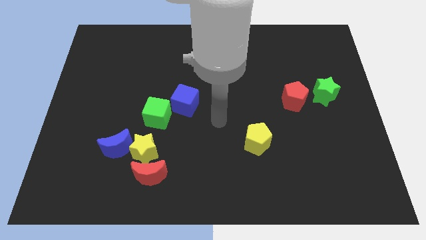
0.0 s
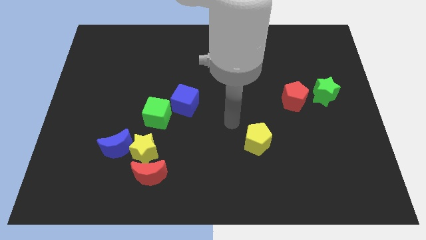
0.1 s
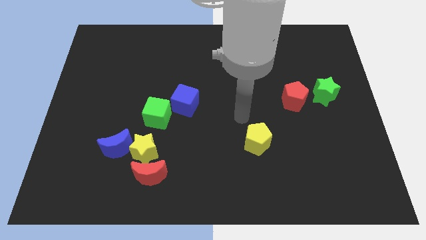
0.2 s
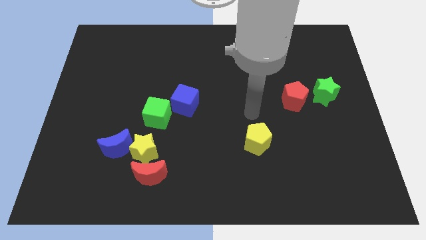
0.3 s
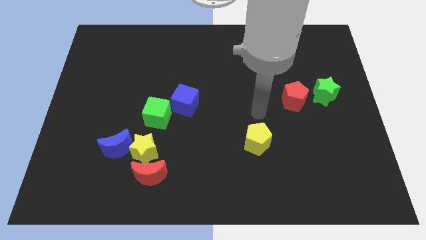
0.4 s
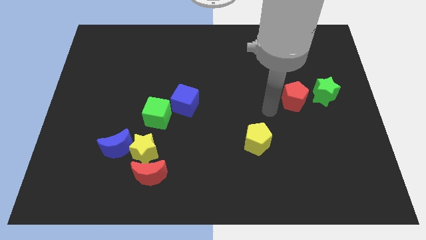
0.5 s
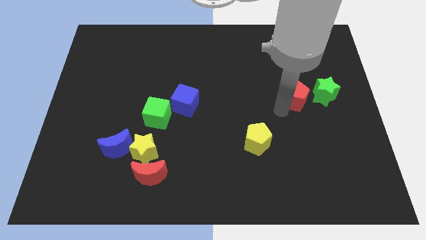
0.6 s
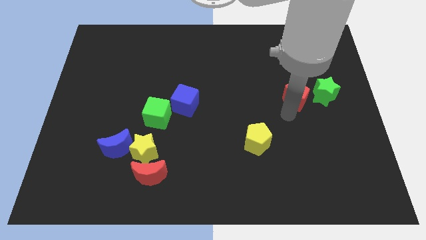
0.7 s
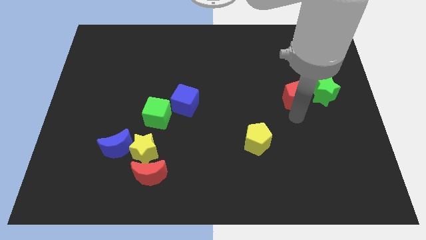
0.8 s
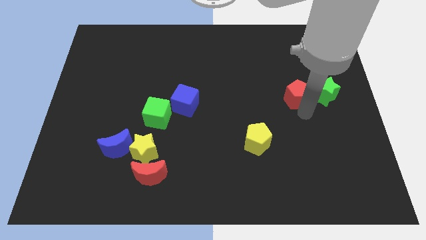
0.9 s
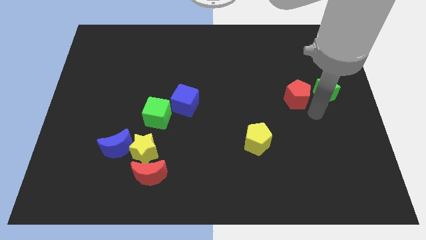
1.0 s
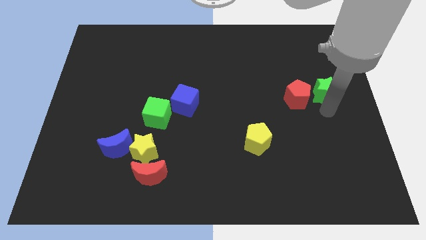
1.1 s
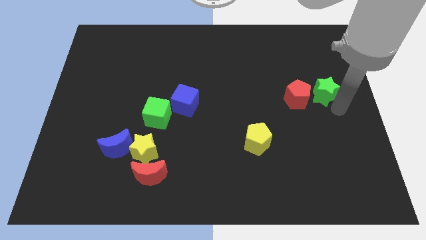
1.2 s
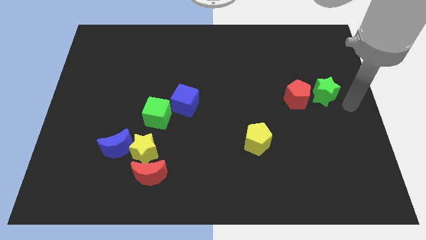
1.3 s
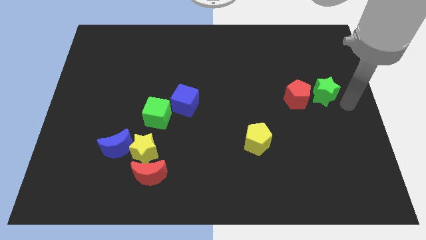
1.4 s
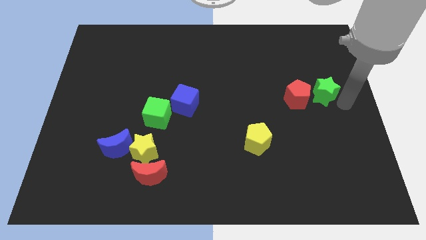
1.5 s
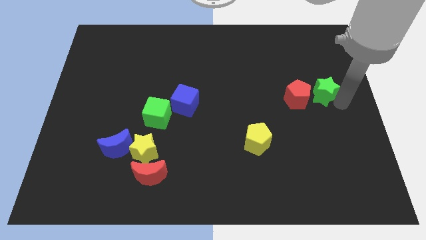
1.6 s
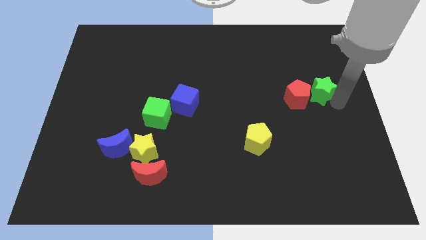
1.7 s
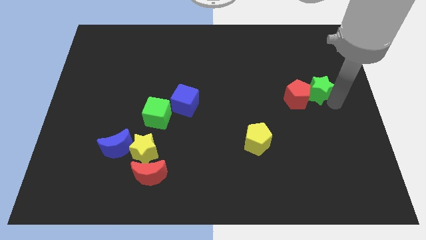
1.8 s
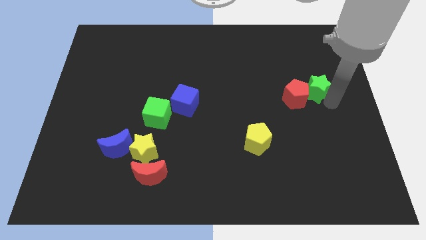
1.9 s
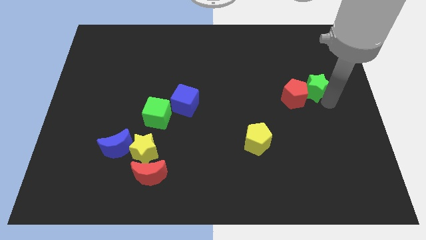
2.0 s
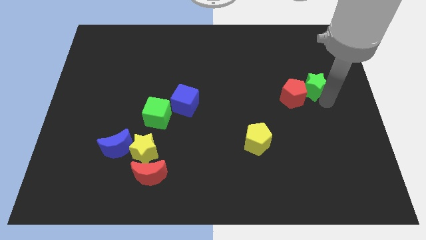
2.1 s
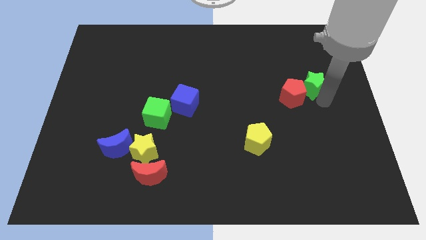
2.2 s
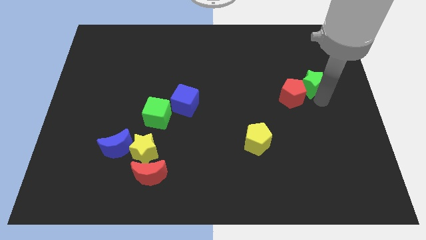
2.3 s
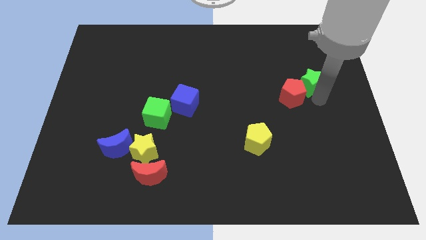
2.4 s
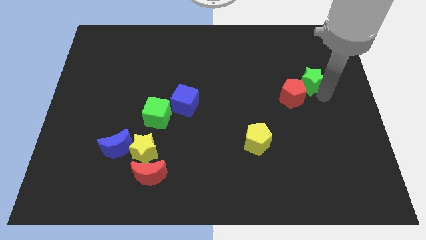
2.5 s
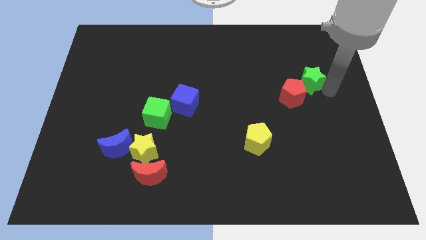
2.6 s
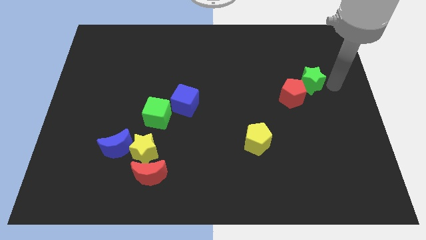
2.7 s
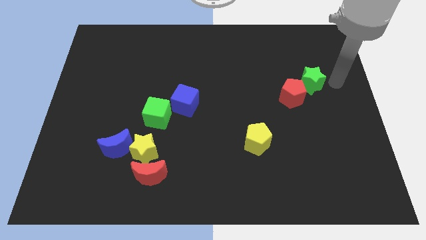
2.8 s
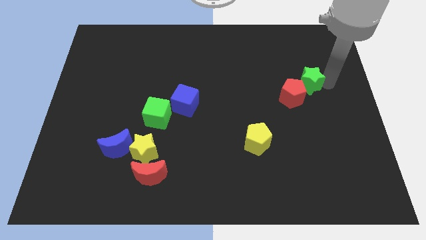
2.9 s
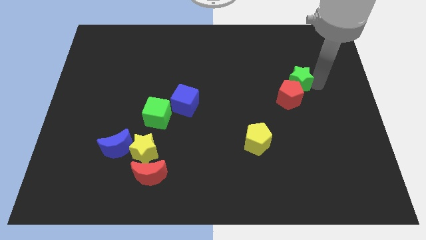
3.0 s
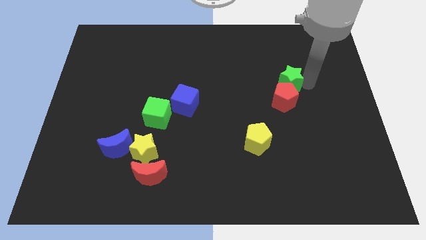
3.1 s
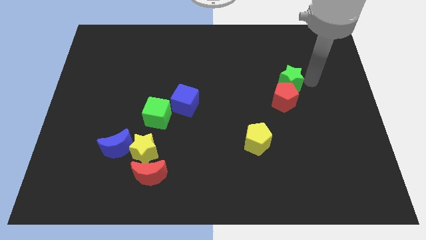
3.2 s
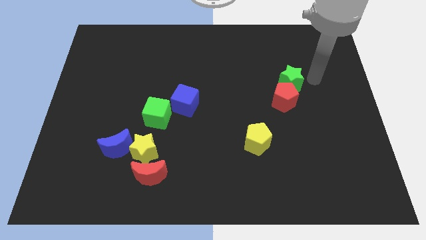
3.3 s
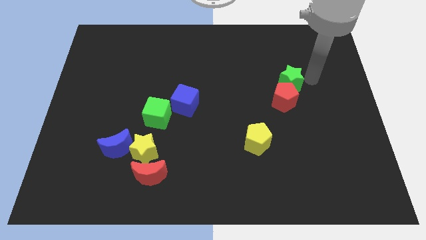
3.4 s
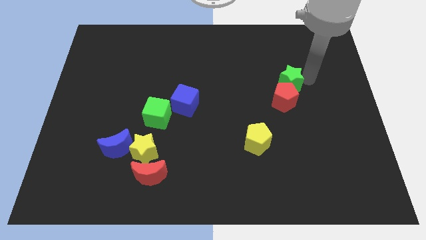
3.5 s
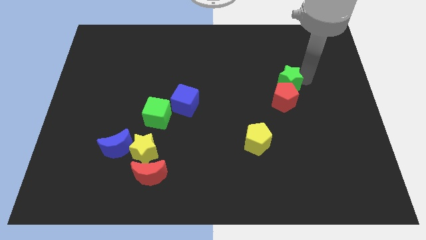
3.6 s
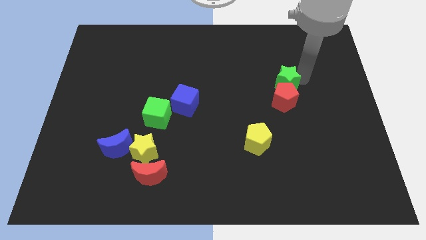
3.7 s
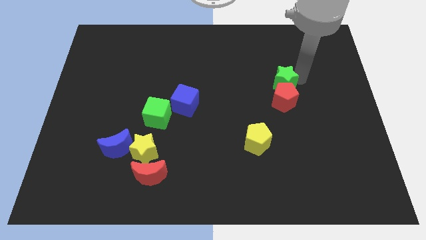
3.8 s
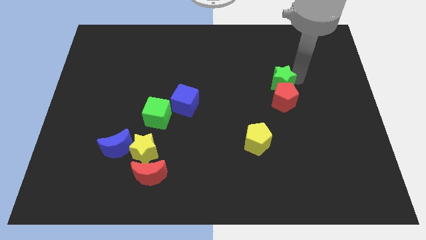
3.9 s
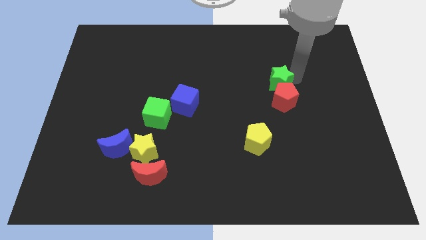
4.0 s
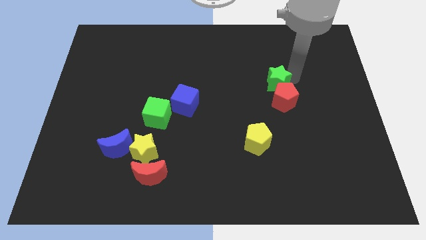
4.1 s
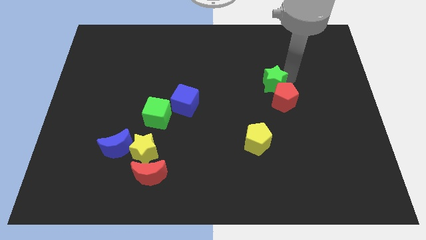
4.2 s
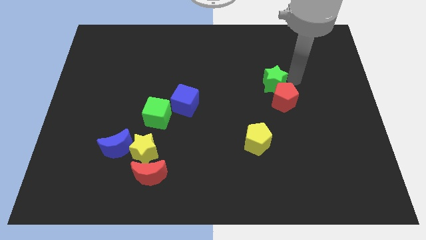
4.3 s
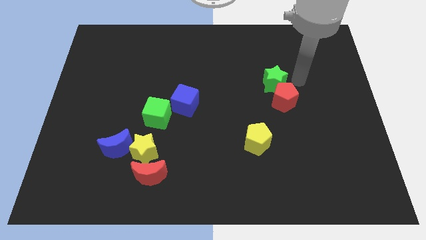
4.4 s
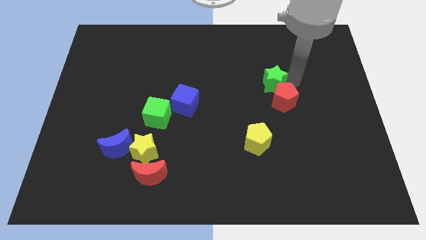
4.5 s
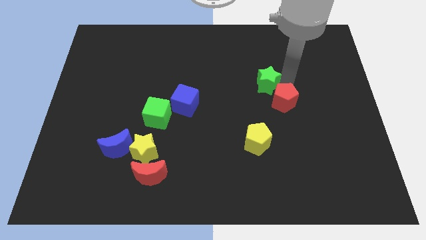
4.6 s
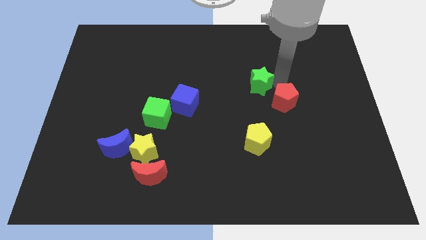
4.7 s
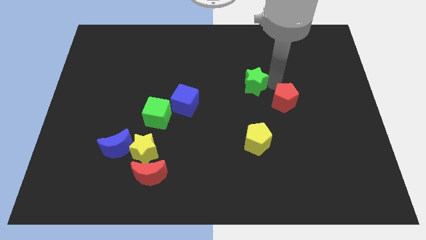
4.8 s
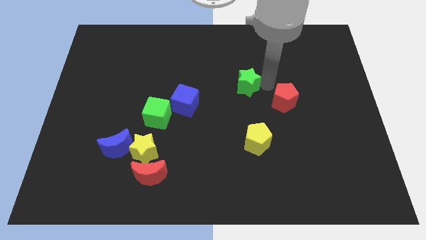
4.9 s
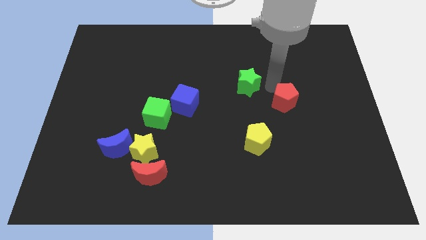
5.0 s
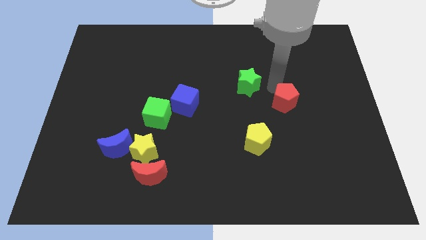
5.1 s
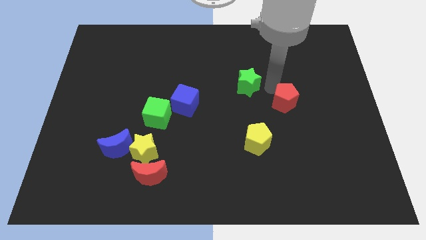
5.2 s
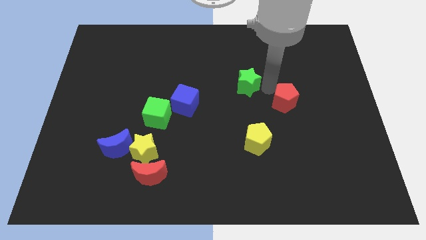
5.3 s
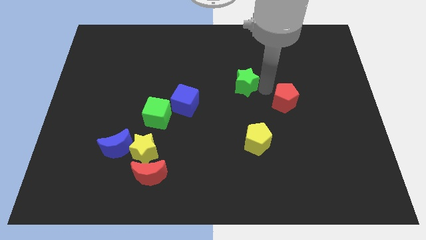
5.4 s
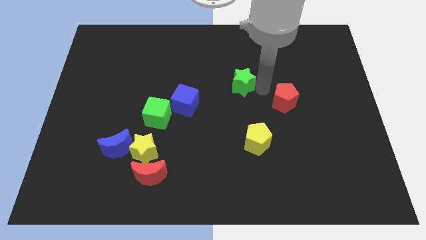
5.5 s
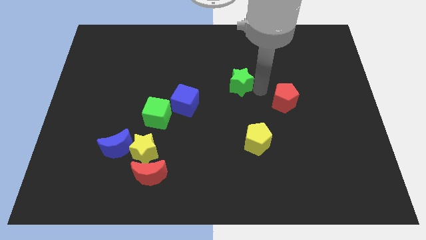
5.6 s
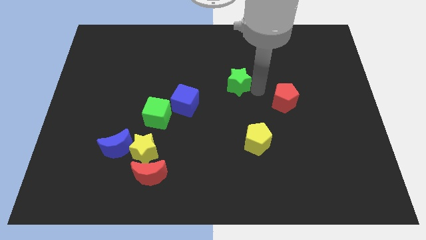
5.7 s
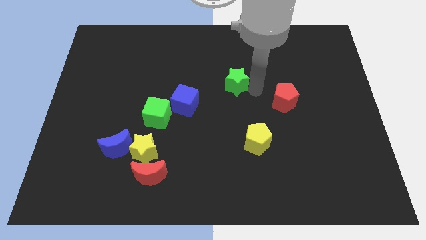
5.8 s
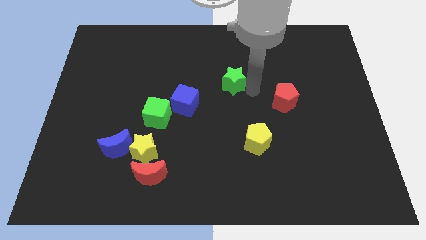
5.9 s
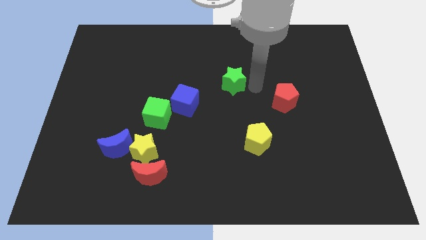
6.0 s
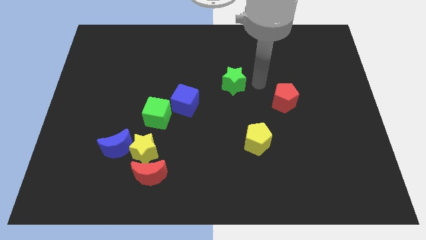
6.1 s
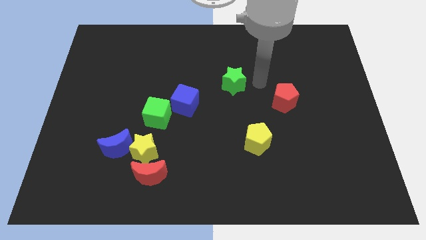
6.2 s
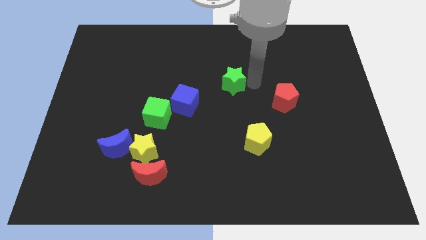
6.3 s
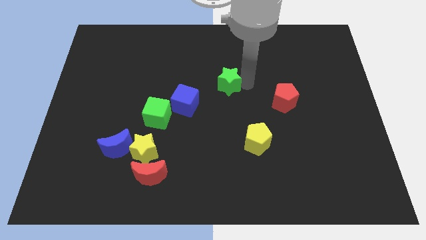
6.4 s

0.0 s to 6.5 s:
push the green star to the top right of the blue cube

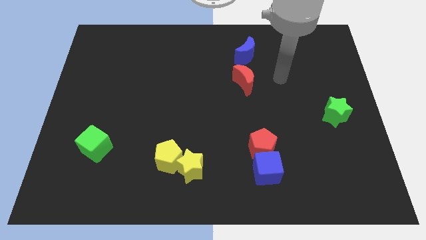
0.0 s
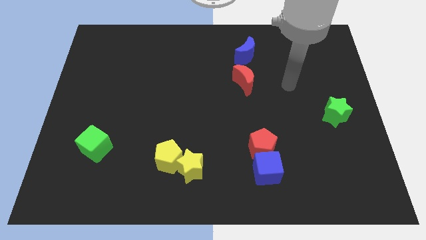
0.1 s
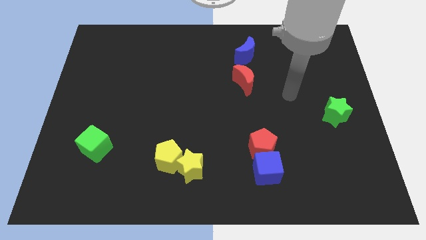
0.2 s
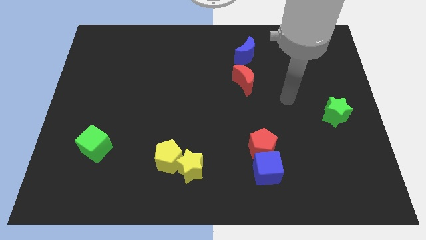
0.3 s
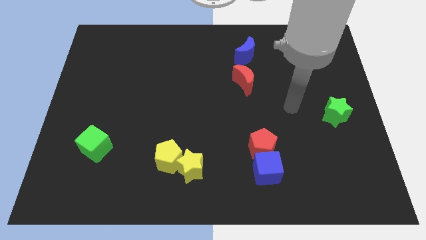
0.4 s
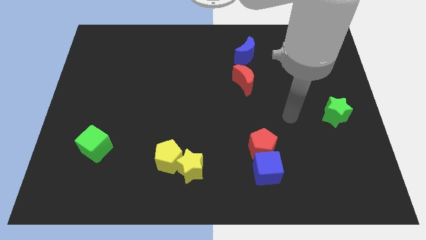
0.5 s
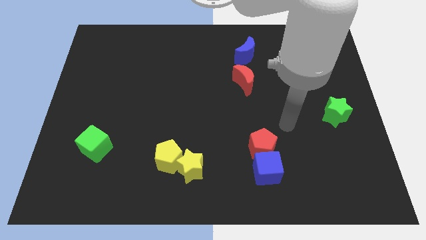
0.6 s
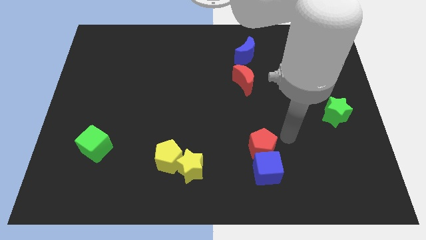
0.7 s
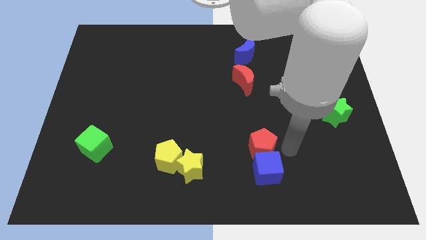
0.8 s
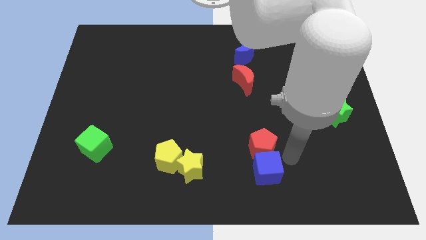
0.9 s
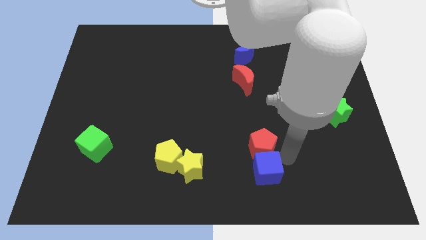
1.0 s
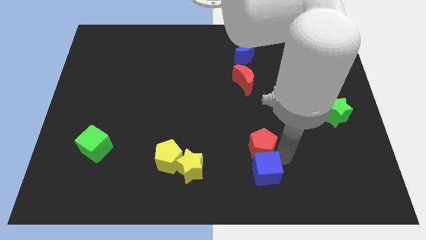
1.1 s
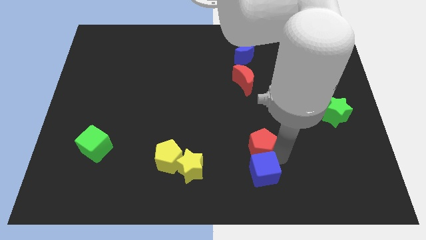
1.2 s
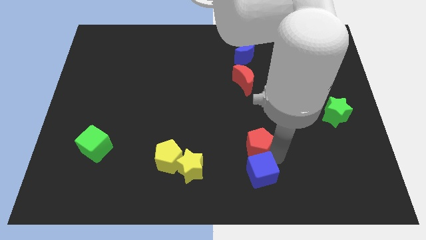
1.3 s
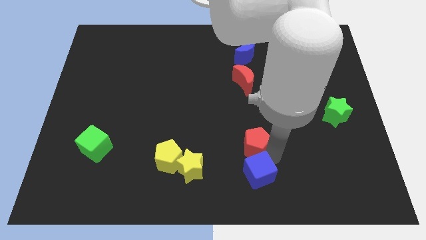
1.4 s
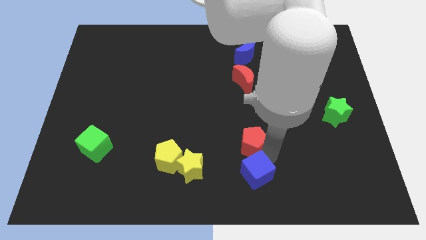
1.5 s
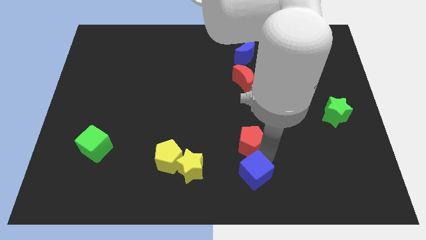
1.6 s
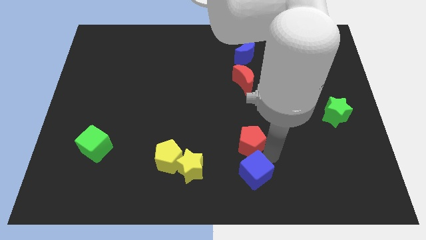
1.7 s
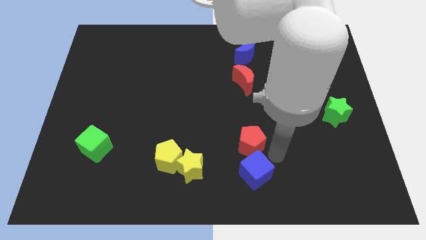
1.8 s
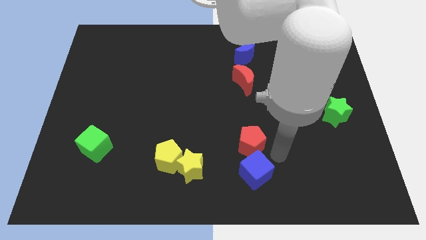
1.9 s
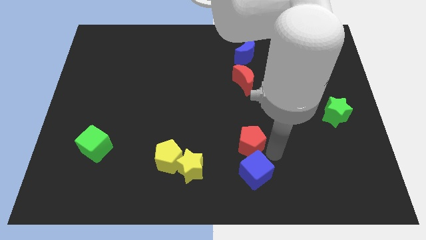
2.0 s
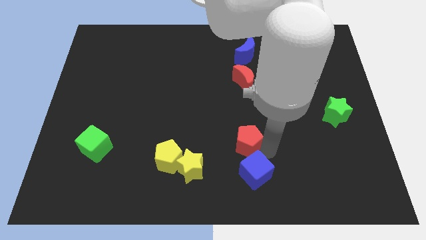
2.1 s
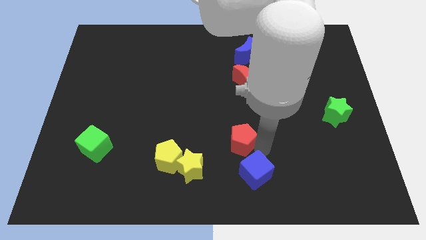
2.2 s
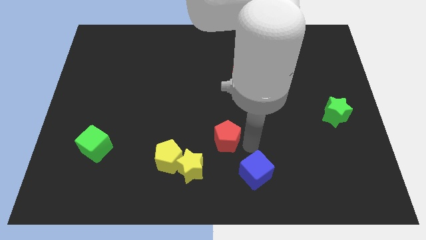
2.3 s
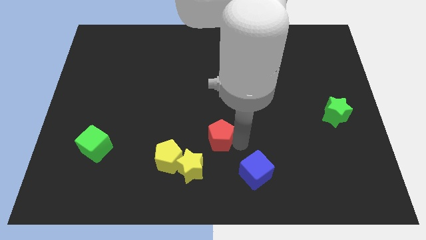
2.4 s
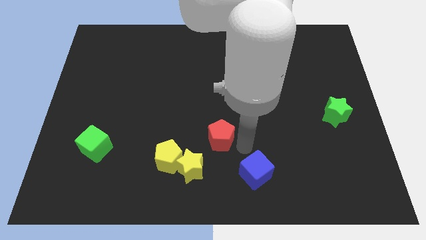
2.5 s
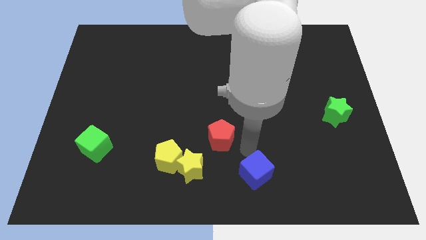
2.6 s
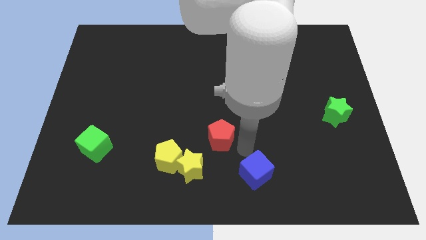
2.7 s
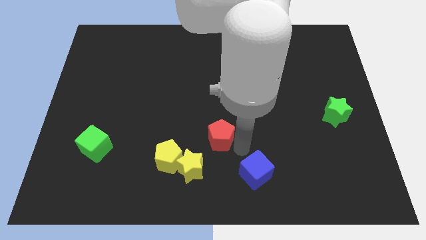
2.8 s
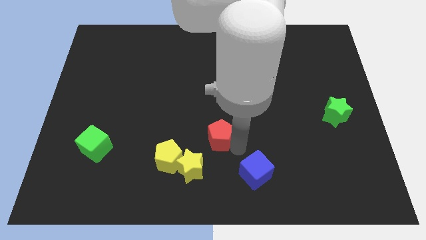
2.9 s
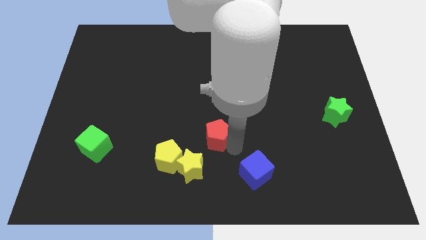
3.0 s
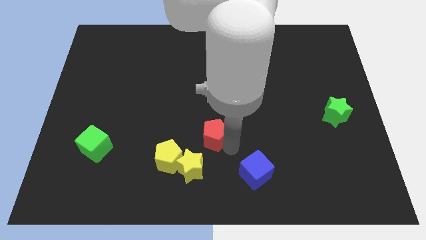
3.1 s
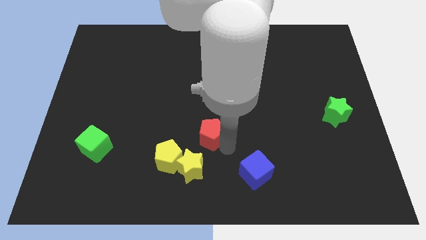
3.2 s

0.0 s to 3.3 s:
slide the red pentagon above the yellow star
